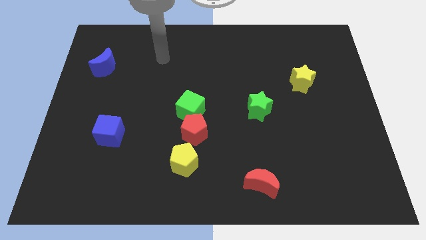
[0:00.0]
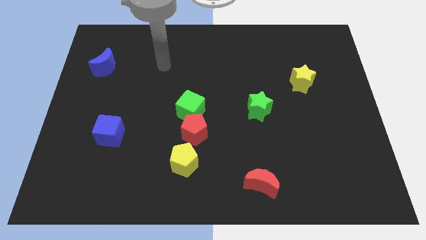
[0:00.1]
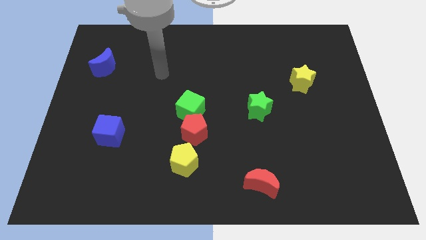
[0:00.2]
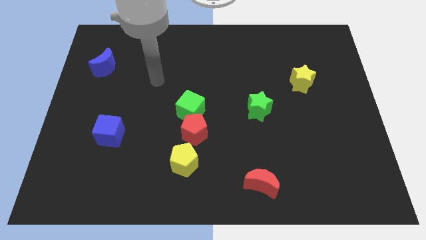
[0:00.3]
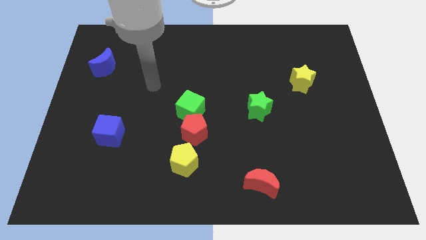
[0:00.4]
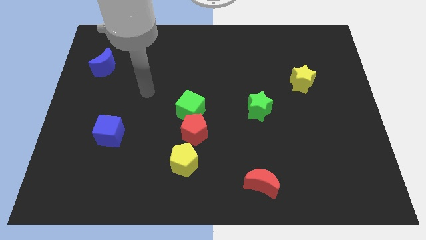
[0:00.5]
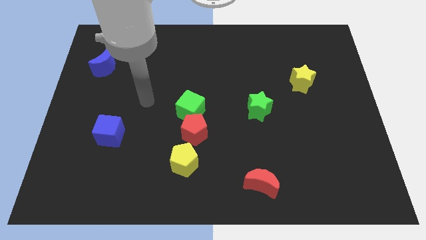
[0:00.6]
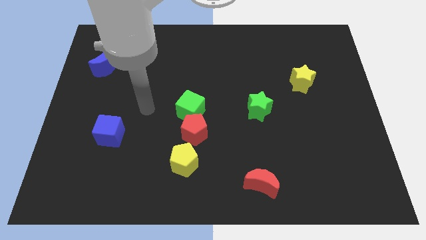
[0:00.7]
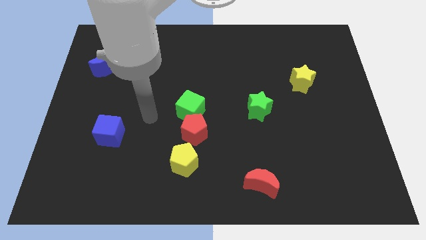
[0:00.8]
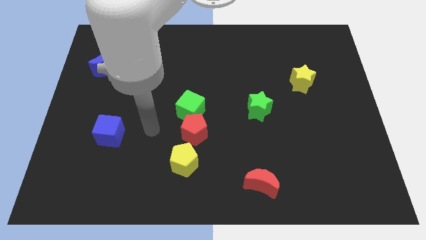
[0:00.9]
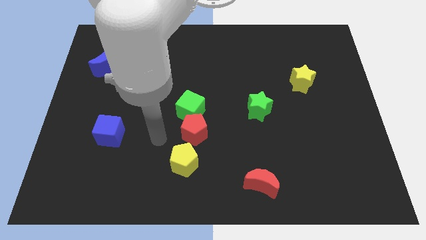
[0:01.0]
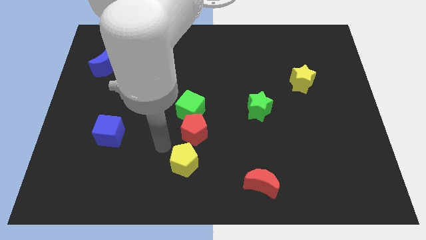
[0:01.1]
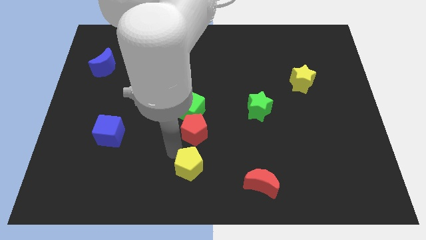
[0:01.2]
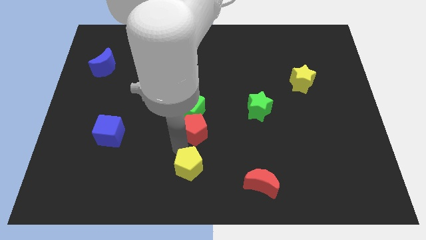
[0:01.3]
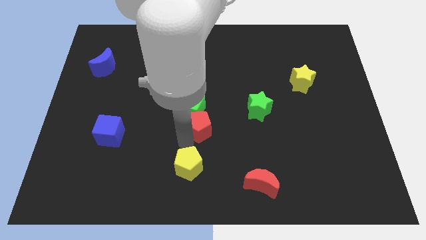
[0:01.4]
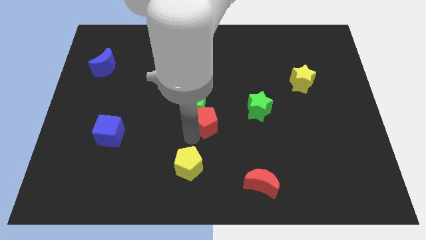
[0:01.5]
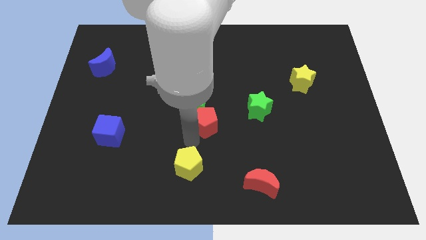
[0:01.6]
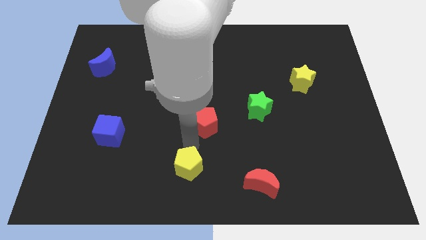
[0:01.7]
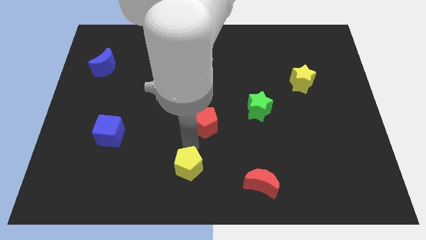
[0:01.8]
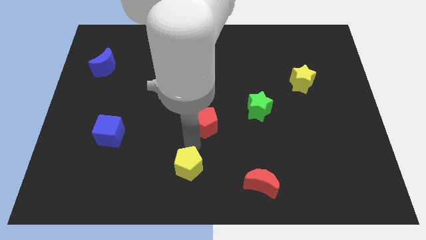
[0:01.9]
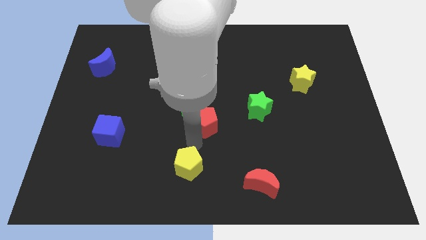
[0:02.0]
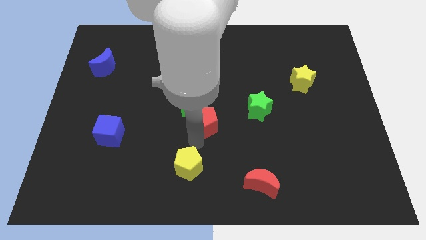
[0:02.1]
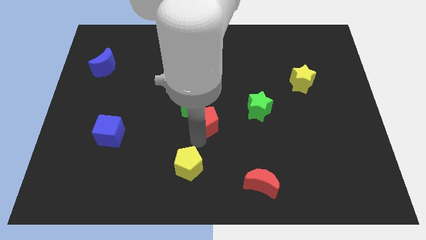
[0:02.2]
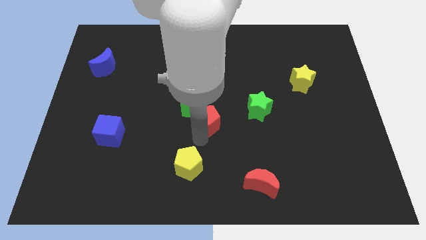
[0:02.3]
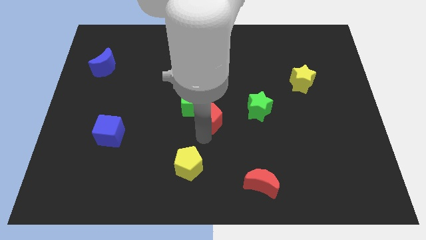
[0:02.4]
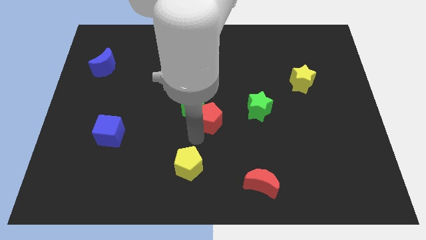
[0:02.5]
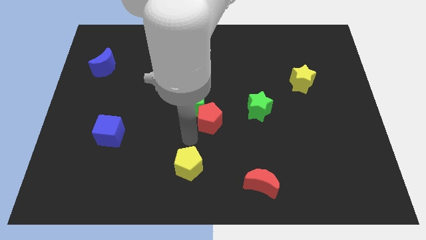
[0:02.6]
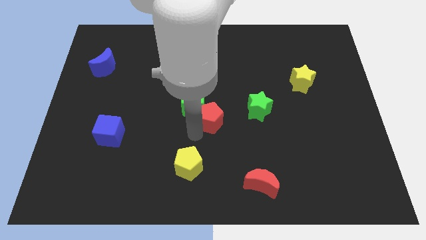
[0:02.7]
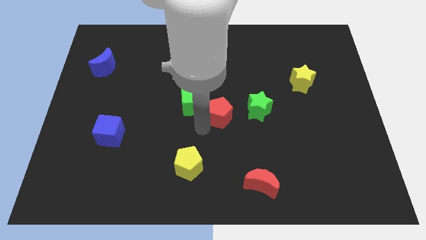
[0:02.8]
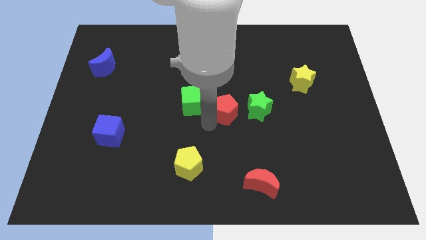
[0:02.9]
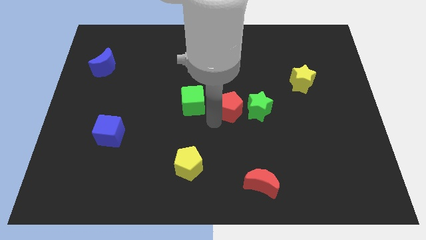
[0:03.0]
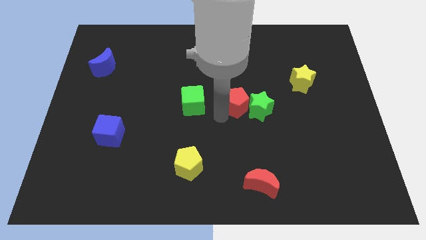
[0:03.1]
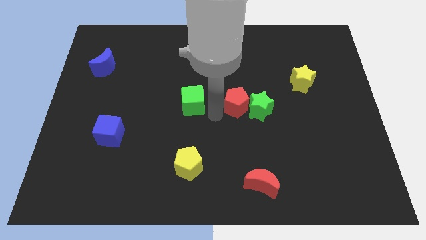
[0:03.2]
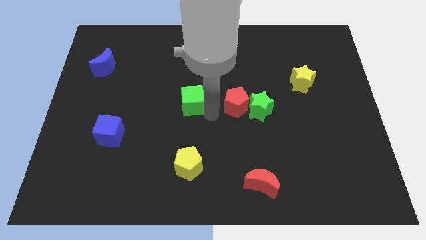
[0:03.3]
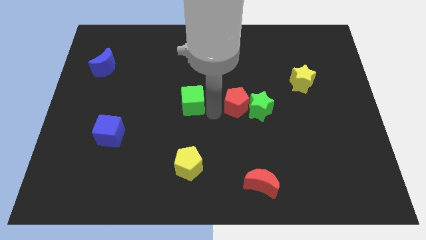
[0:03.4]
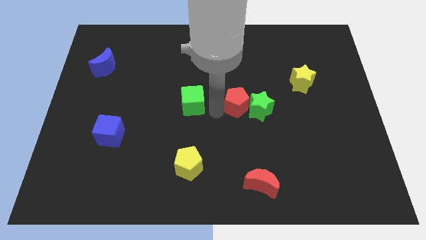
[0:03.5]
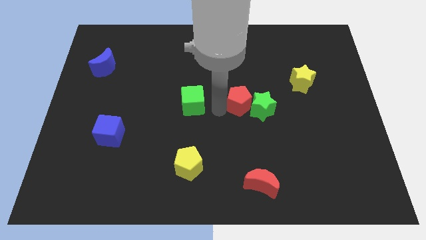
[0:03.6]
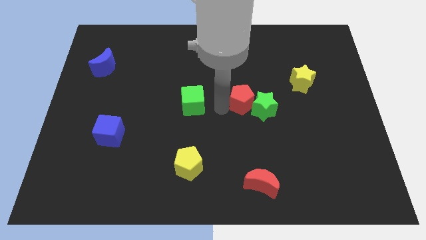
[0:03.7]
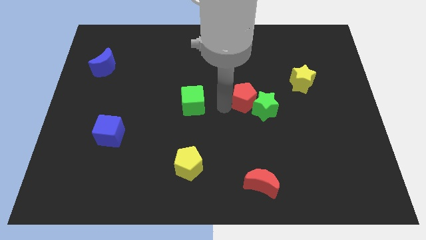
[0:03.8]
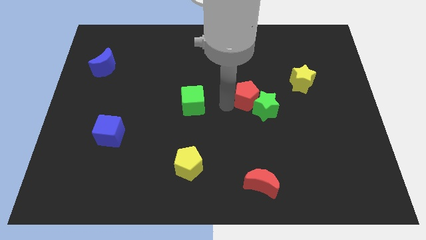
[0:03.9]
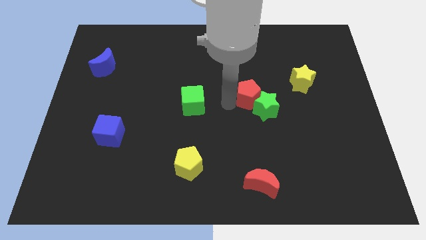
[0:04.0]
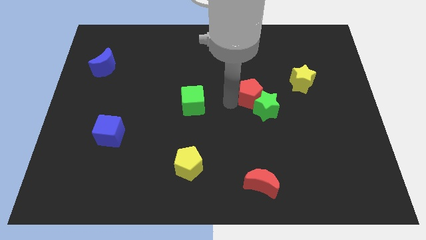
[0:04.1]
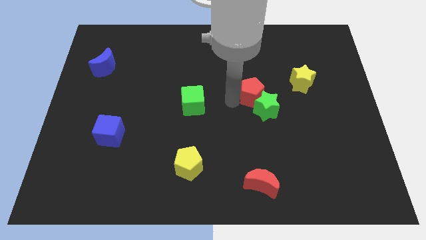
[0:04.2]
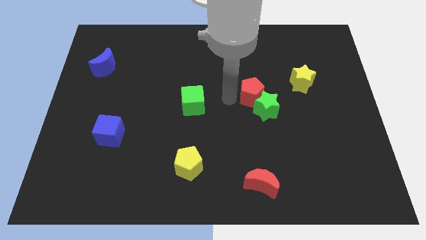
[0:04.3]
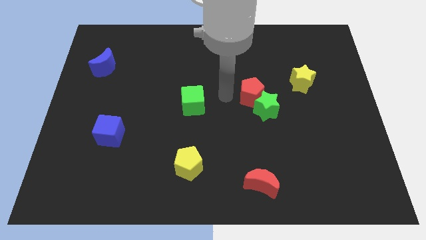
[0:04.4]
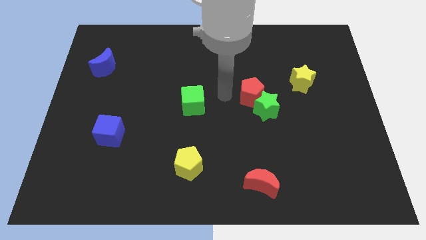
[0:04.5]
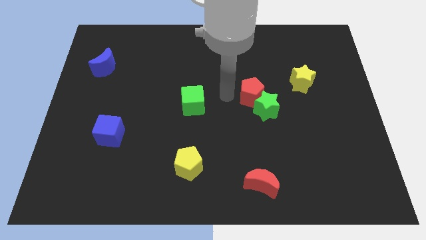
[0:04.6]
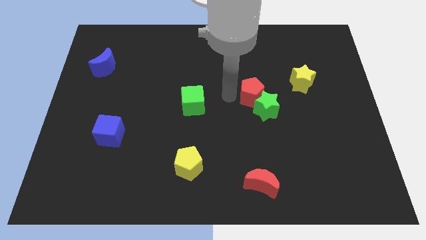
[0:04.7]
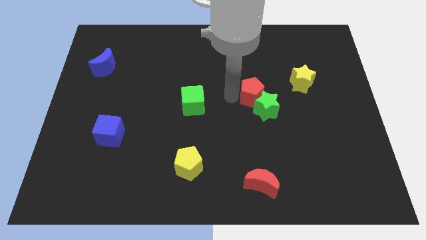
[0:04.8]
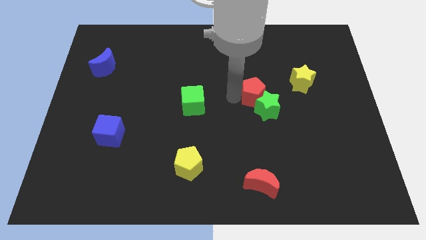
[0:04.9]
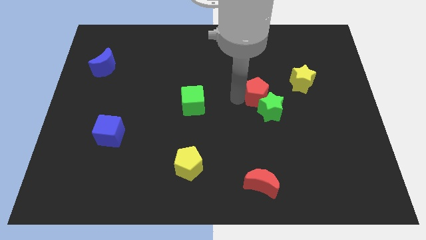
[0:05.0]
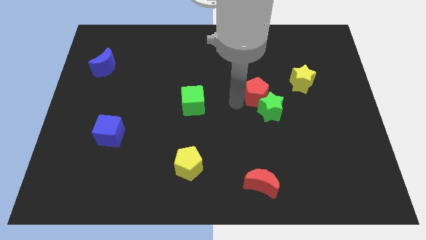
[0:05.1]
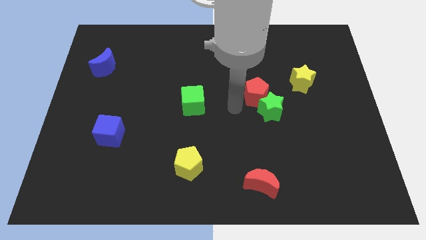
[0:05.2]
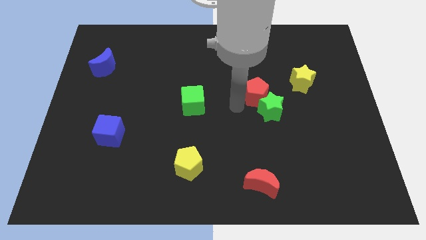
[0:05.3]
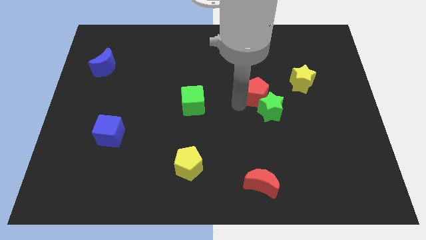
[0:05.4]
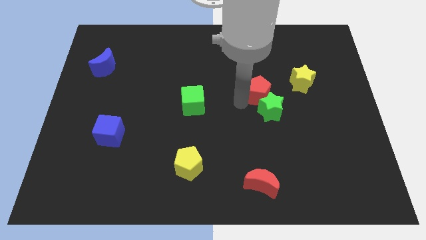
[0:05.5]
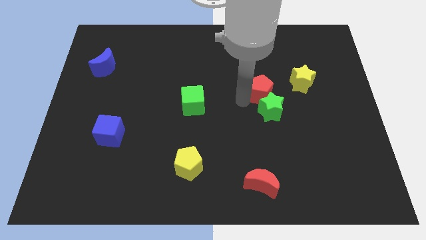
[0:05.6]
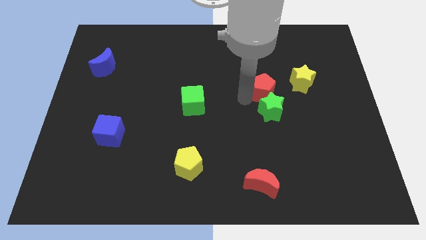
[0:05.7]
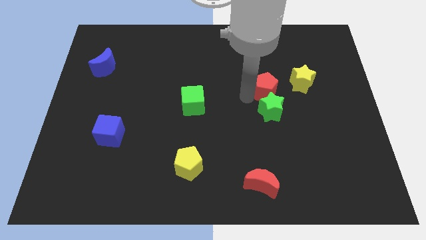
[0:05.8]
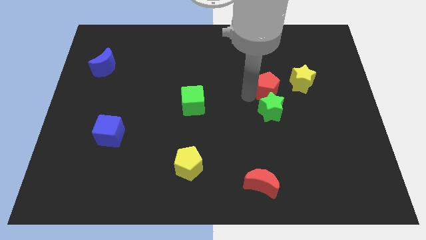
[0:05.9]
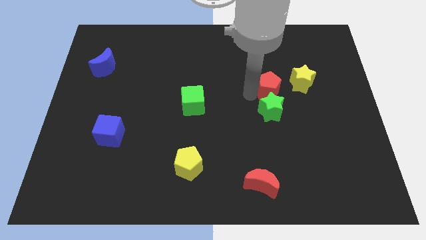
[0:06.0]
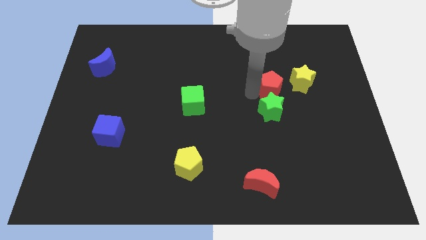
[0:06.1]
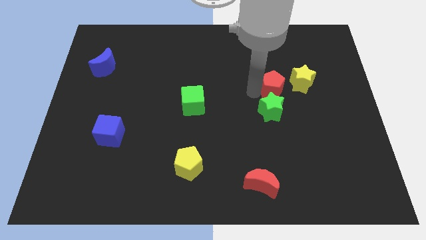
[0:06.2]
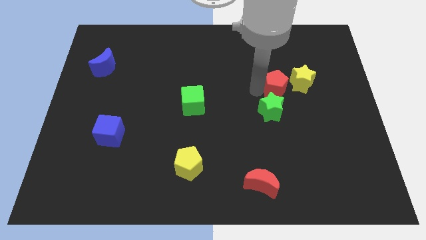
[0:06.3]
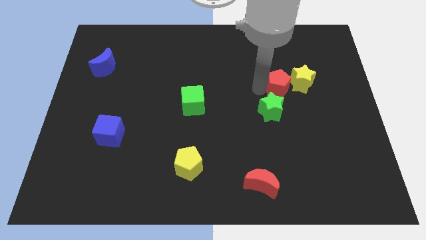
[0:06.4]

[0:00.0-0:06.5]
move the red pentagon next to the yellow star

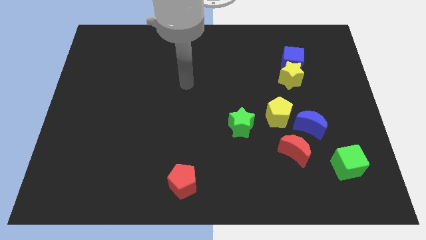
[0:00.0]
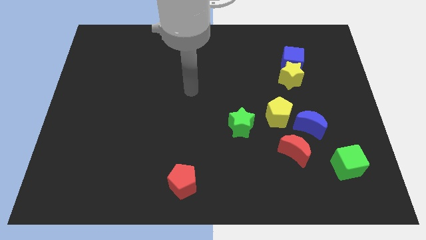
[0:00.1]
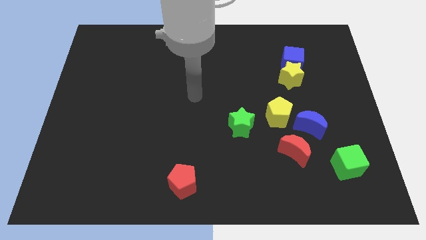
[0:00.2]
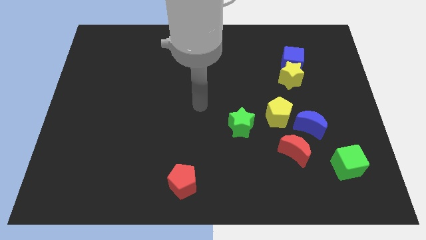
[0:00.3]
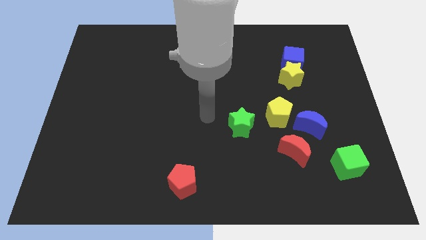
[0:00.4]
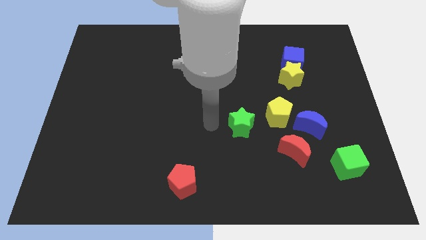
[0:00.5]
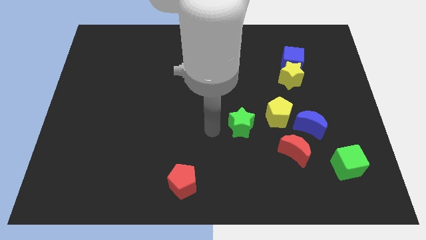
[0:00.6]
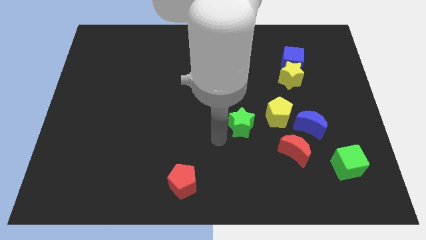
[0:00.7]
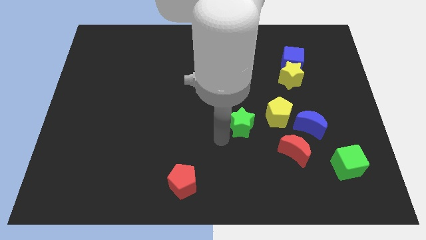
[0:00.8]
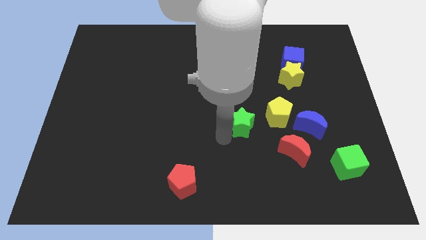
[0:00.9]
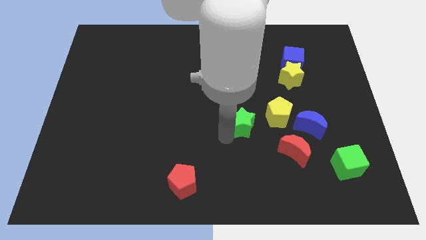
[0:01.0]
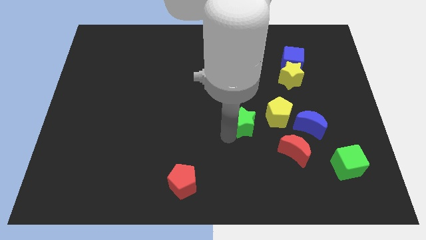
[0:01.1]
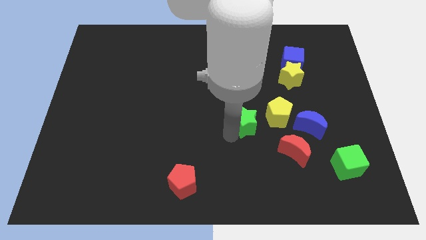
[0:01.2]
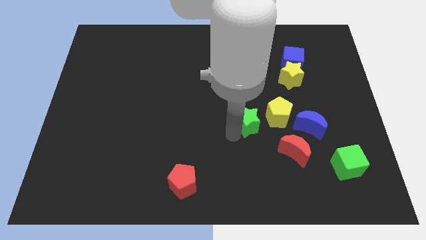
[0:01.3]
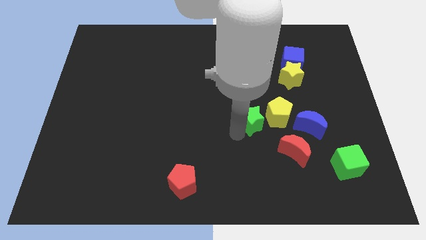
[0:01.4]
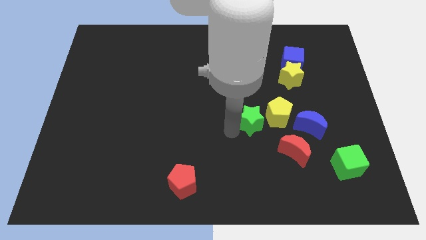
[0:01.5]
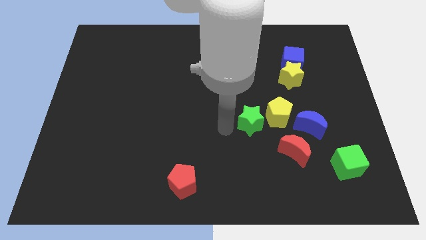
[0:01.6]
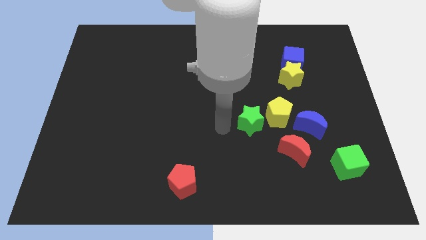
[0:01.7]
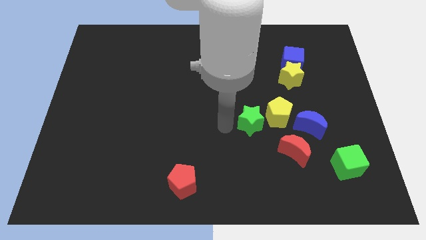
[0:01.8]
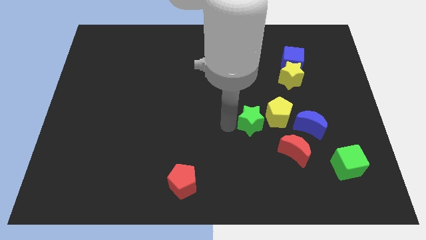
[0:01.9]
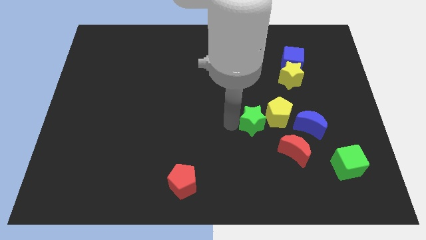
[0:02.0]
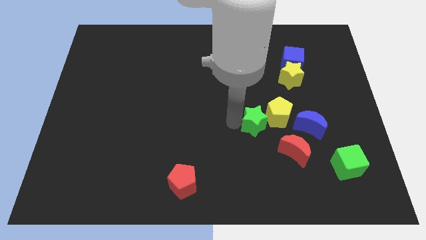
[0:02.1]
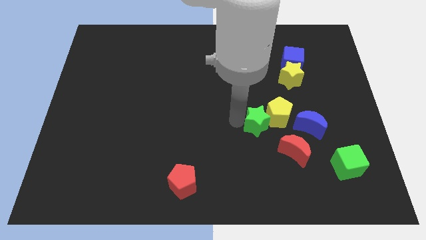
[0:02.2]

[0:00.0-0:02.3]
slide the green star next to the yellow pentagon
